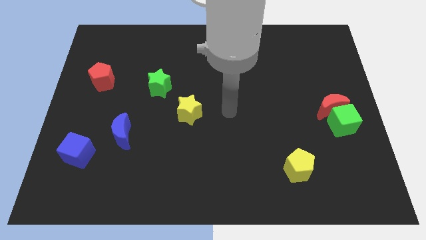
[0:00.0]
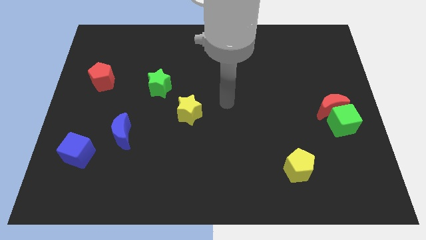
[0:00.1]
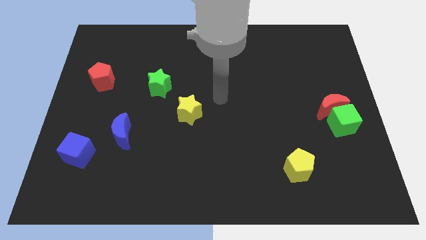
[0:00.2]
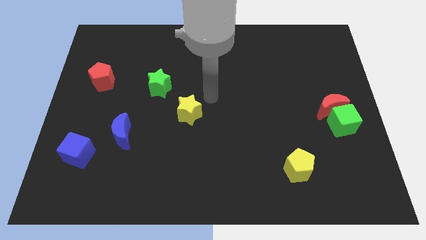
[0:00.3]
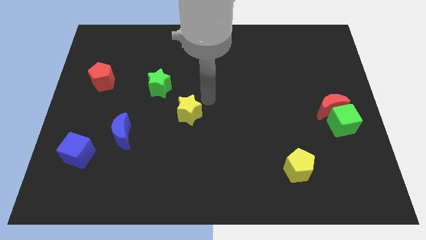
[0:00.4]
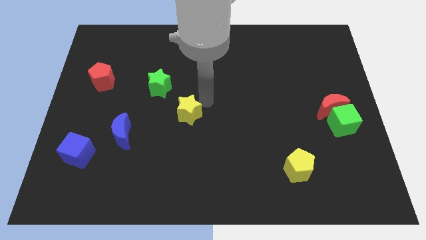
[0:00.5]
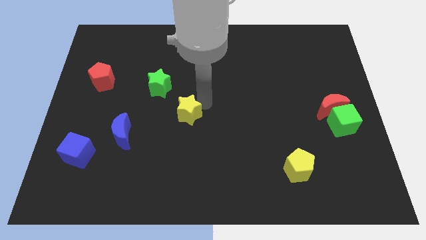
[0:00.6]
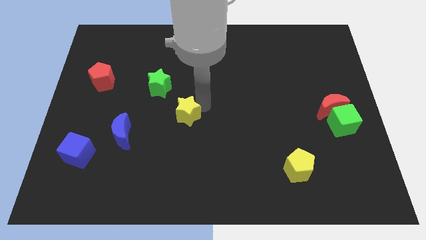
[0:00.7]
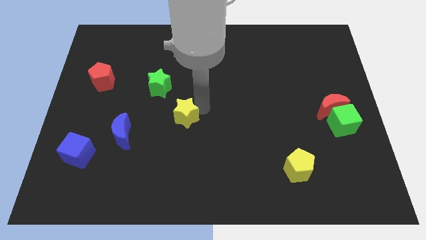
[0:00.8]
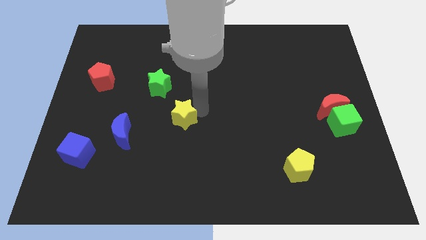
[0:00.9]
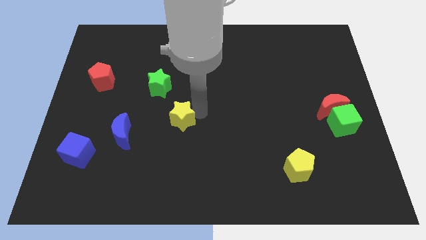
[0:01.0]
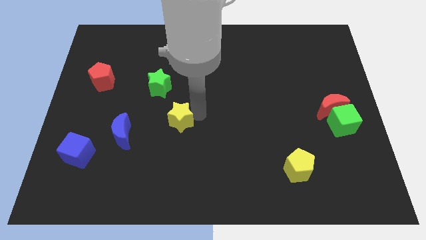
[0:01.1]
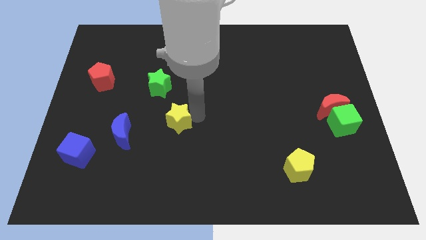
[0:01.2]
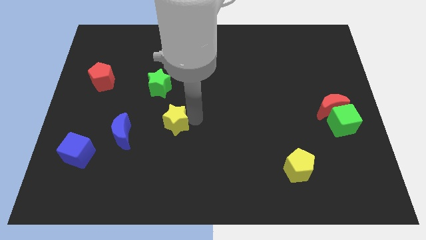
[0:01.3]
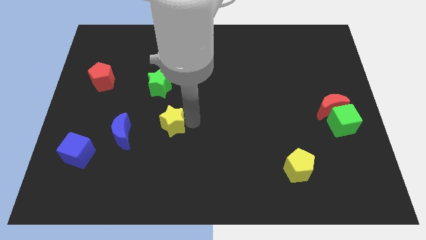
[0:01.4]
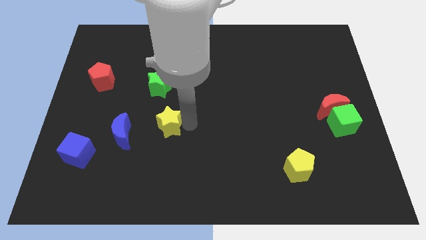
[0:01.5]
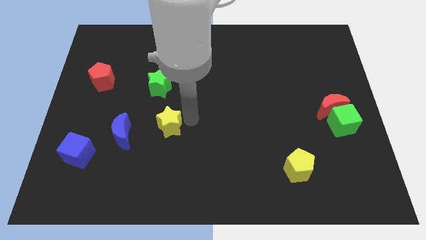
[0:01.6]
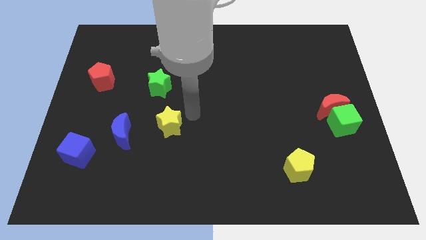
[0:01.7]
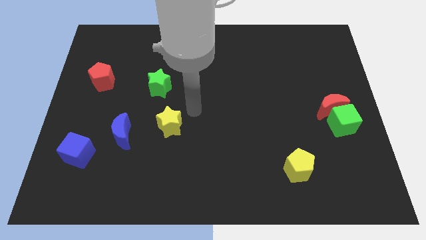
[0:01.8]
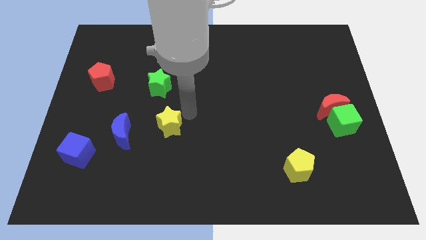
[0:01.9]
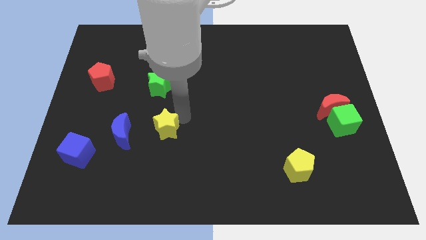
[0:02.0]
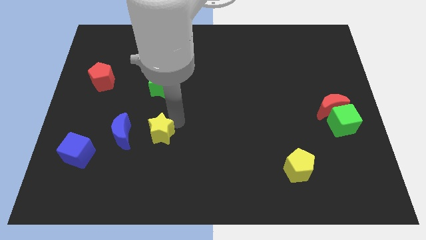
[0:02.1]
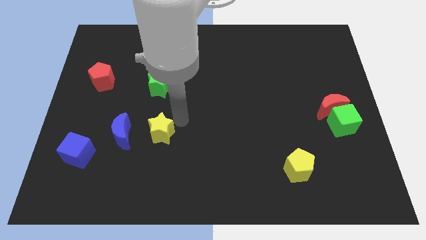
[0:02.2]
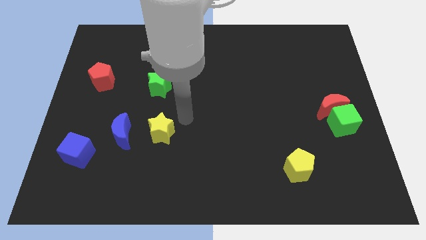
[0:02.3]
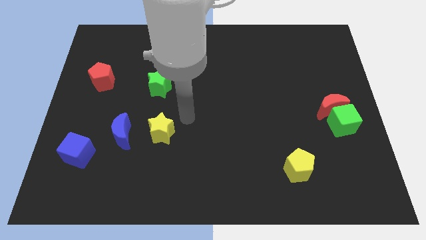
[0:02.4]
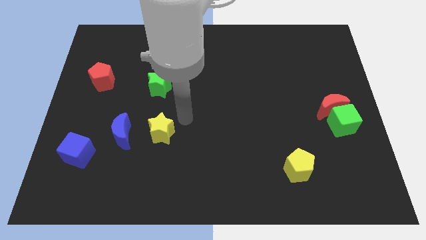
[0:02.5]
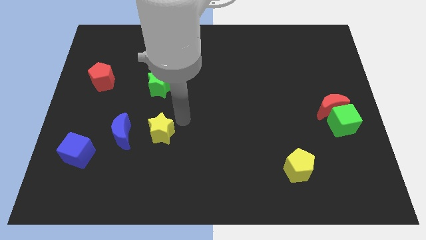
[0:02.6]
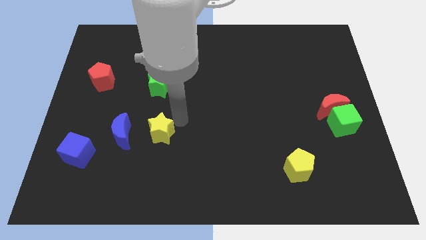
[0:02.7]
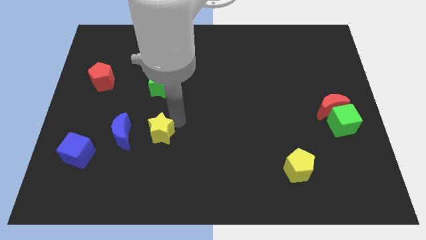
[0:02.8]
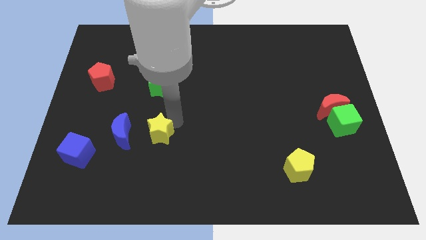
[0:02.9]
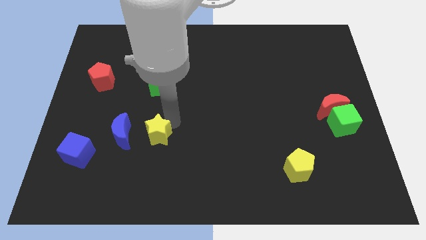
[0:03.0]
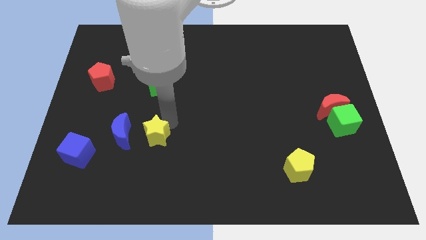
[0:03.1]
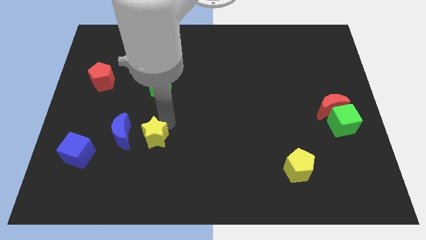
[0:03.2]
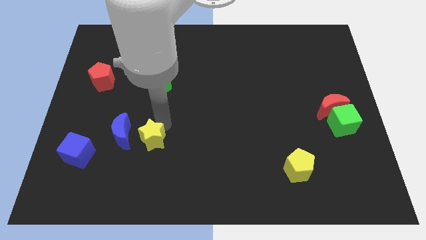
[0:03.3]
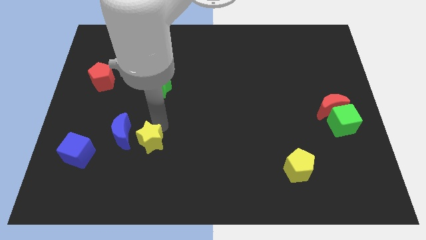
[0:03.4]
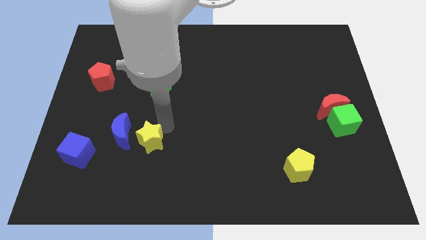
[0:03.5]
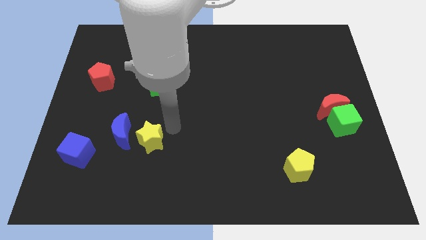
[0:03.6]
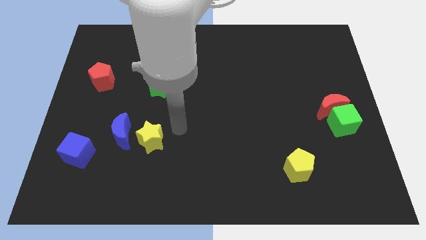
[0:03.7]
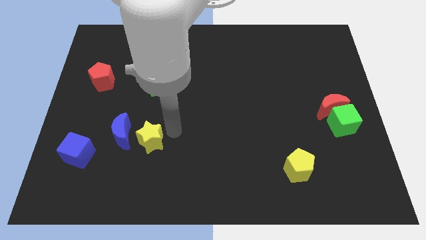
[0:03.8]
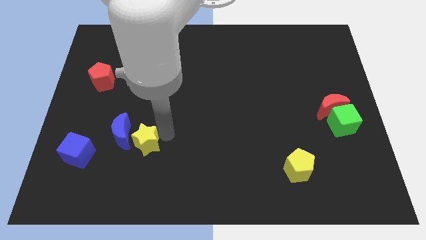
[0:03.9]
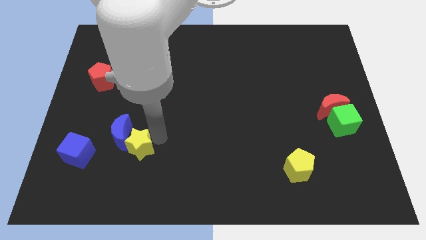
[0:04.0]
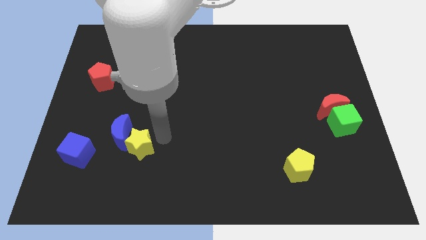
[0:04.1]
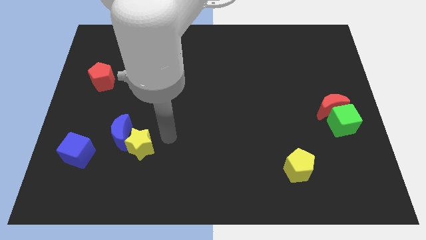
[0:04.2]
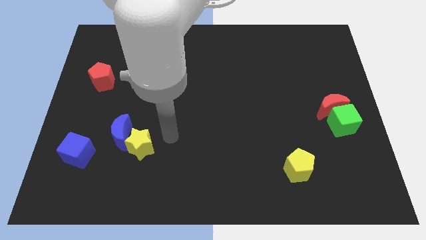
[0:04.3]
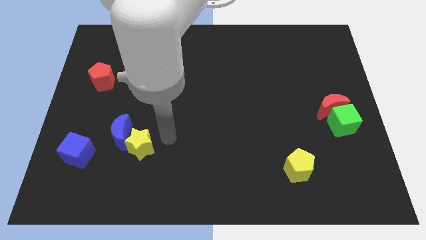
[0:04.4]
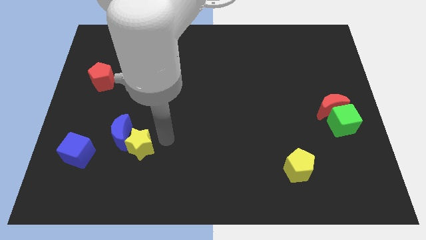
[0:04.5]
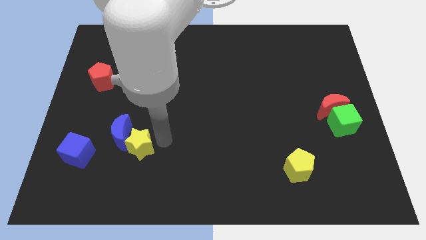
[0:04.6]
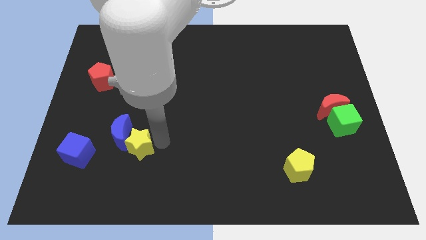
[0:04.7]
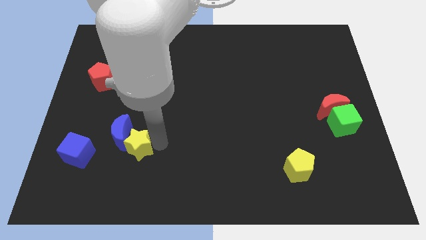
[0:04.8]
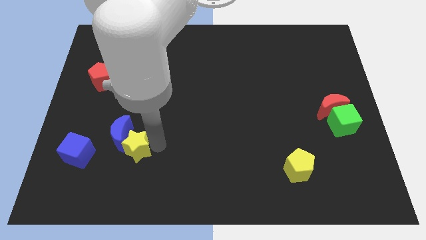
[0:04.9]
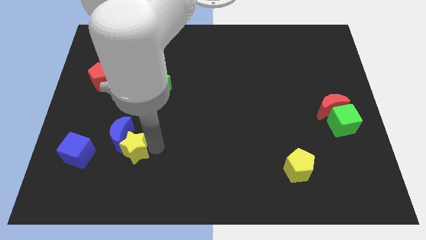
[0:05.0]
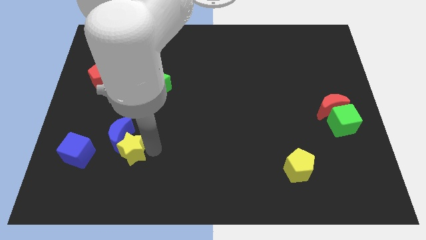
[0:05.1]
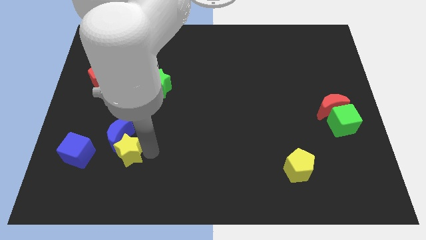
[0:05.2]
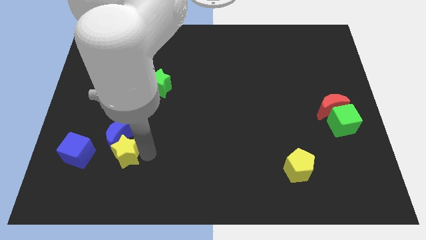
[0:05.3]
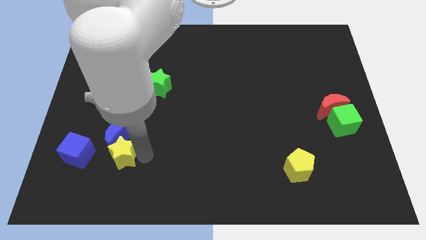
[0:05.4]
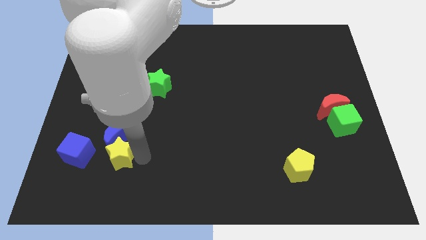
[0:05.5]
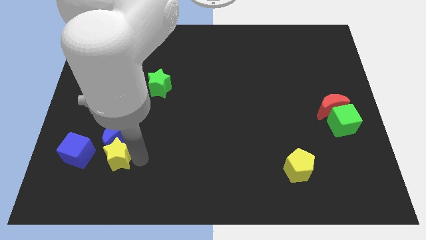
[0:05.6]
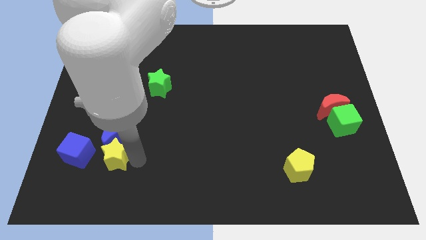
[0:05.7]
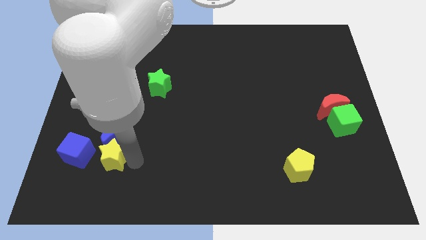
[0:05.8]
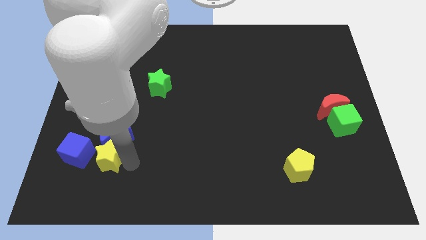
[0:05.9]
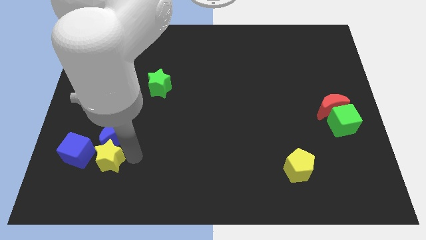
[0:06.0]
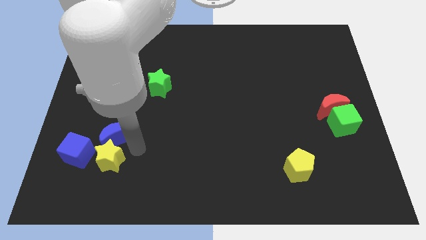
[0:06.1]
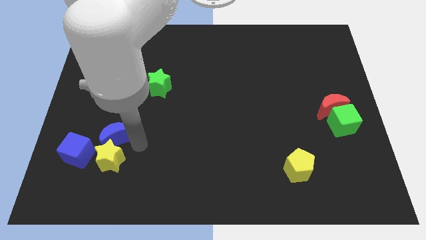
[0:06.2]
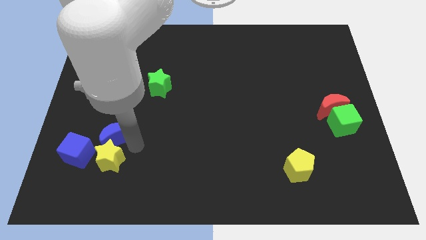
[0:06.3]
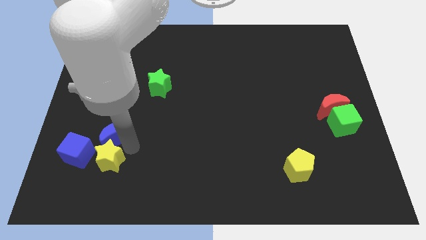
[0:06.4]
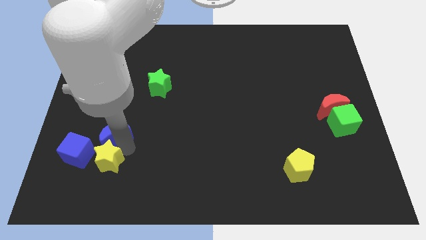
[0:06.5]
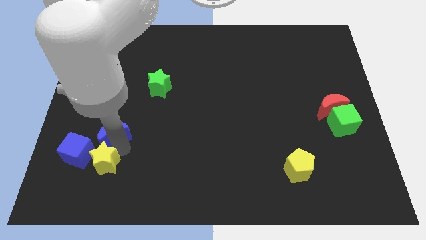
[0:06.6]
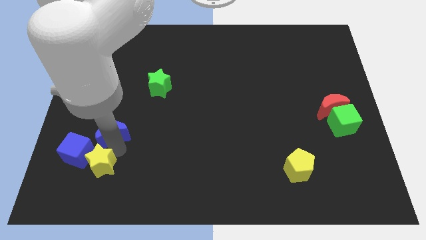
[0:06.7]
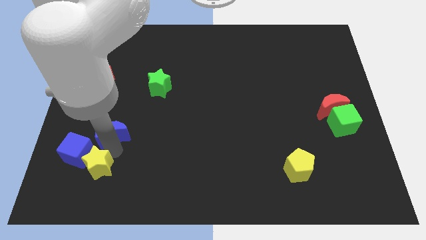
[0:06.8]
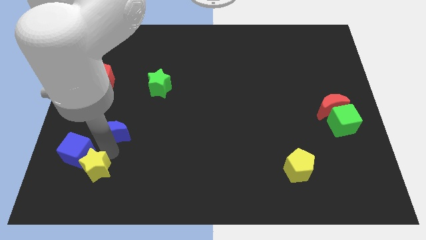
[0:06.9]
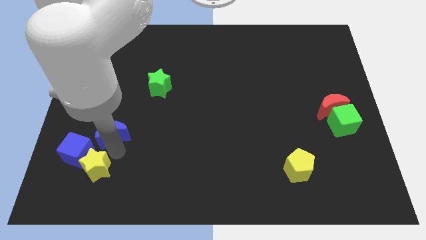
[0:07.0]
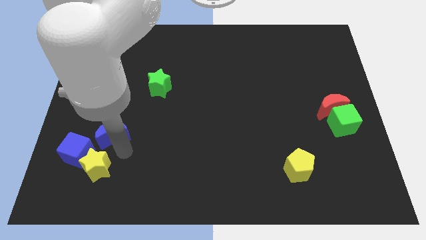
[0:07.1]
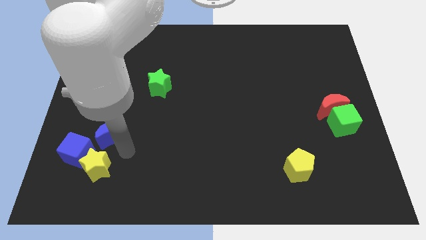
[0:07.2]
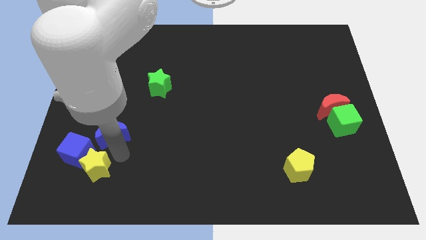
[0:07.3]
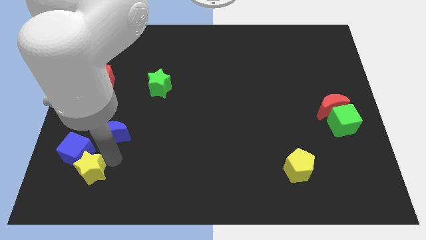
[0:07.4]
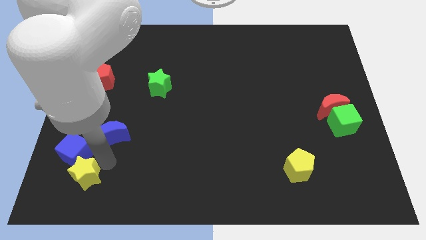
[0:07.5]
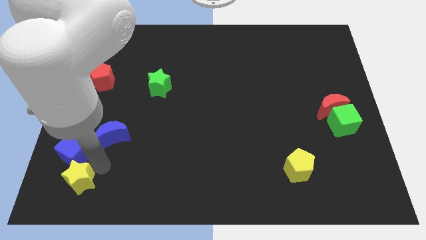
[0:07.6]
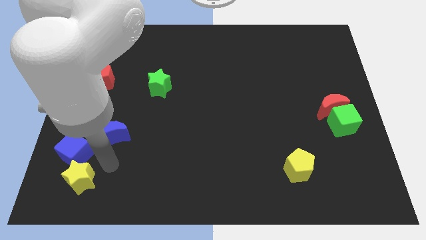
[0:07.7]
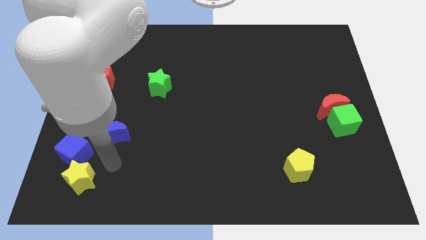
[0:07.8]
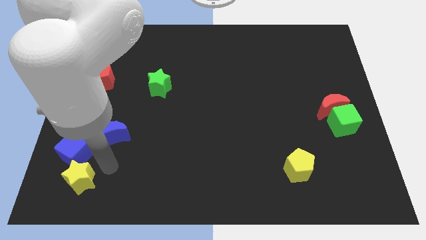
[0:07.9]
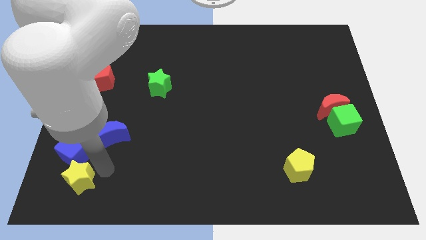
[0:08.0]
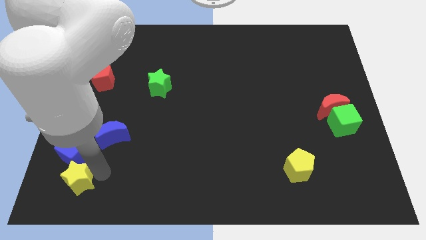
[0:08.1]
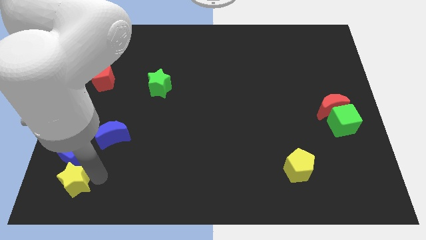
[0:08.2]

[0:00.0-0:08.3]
push the yellow star to the bottom left of the board
